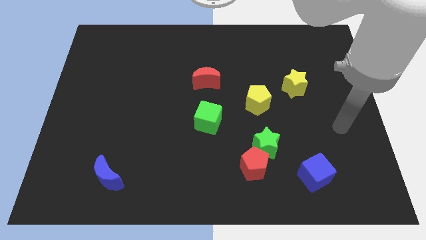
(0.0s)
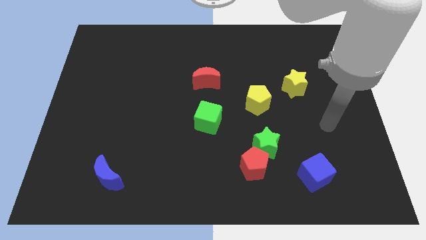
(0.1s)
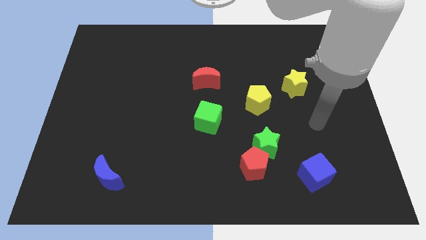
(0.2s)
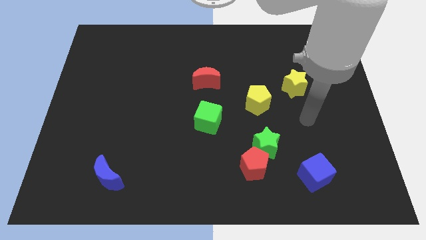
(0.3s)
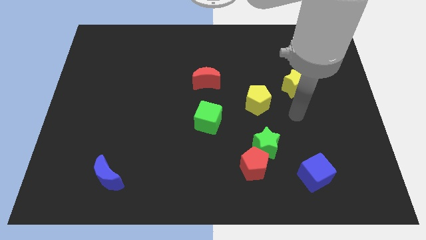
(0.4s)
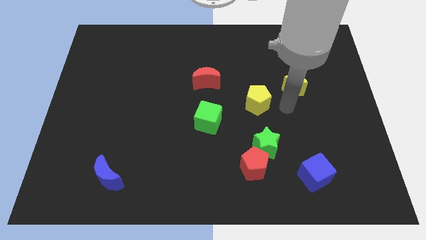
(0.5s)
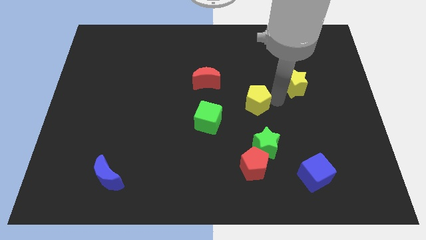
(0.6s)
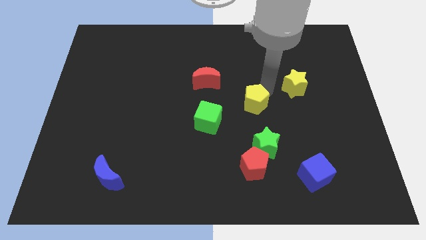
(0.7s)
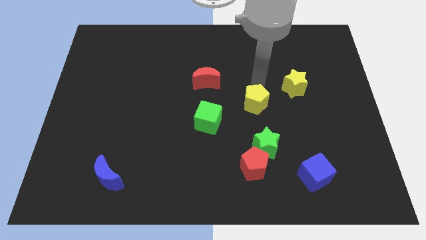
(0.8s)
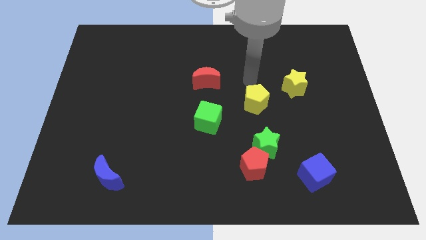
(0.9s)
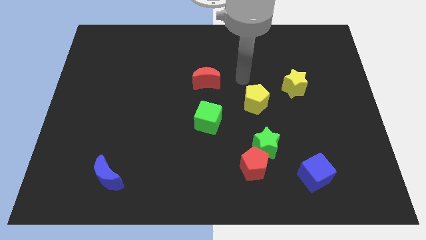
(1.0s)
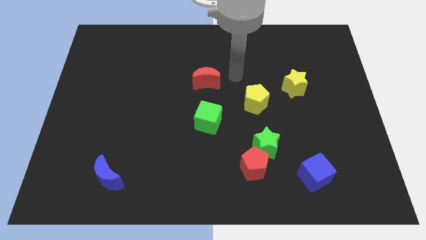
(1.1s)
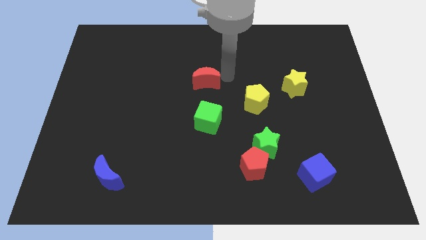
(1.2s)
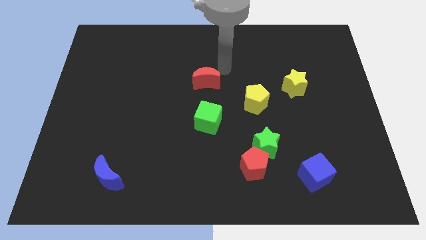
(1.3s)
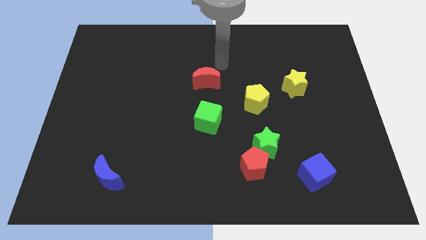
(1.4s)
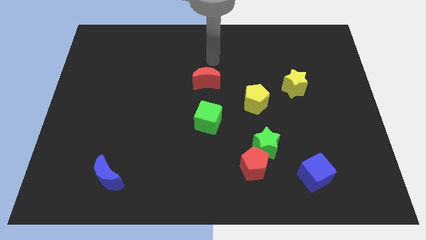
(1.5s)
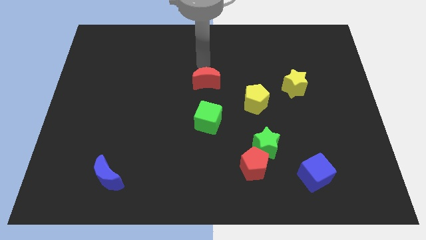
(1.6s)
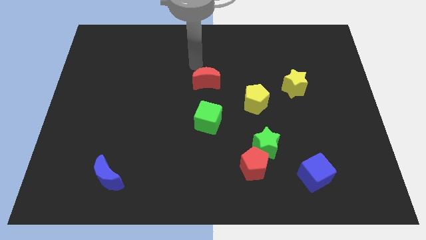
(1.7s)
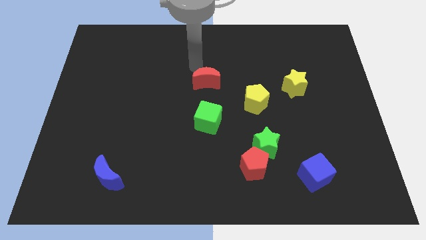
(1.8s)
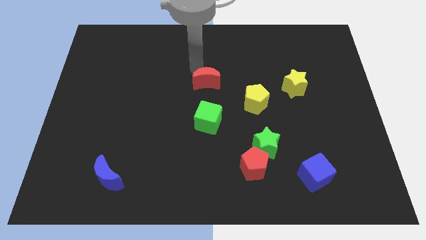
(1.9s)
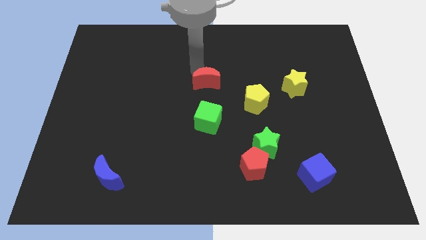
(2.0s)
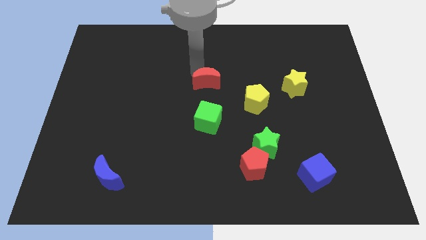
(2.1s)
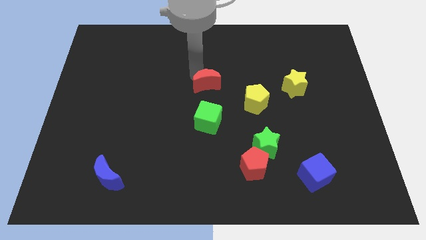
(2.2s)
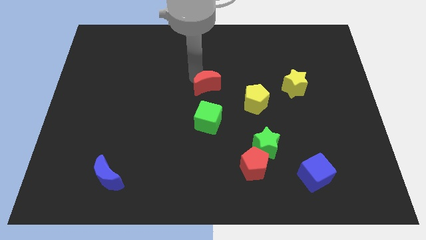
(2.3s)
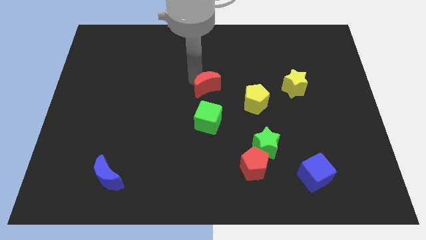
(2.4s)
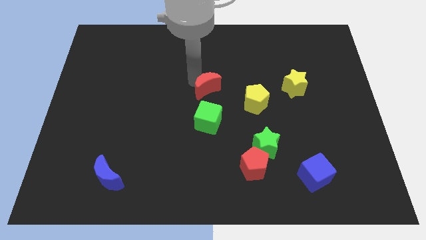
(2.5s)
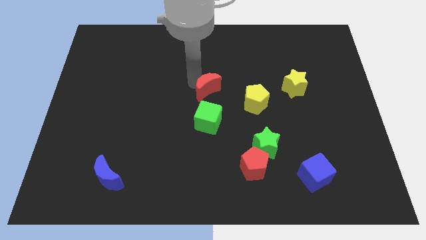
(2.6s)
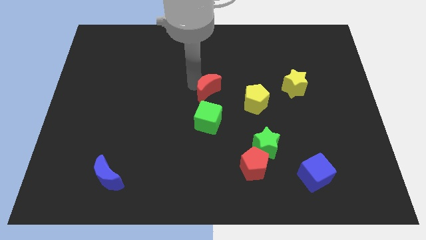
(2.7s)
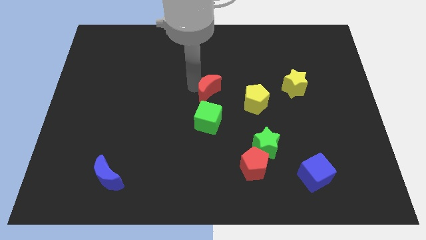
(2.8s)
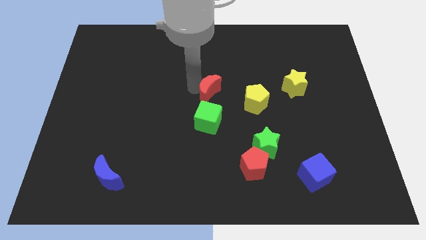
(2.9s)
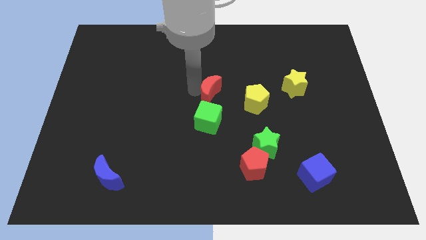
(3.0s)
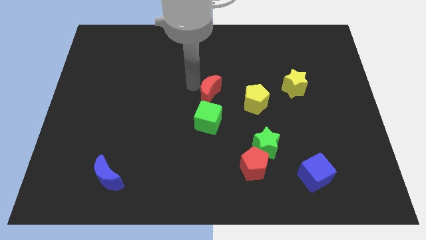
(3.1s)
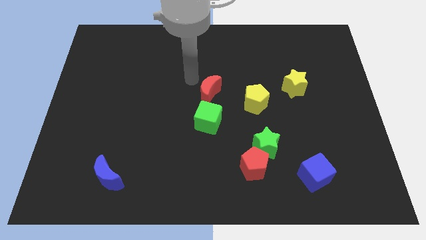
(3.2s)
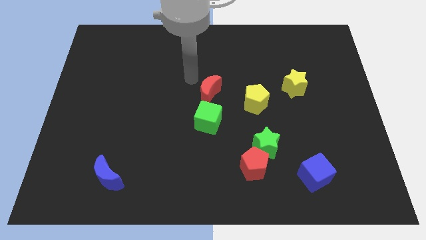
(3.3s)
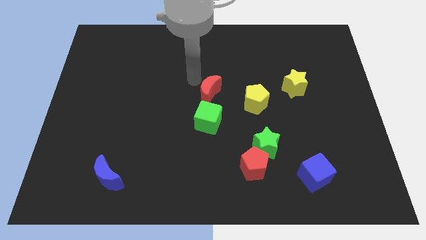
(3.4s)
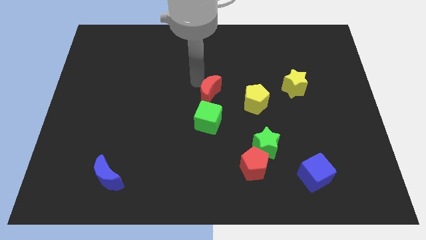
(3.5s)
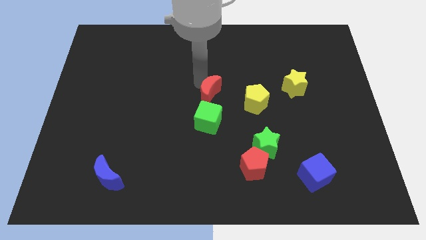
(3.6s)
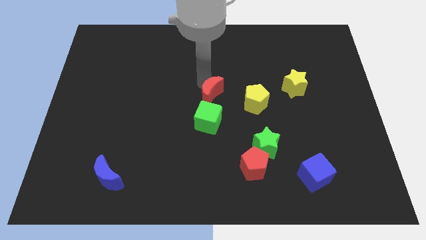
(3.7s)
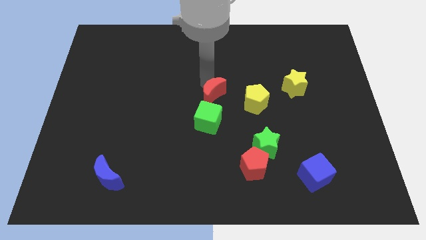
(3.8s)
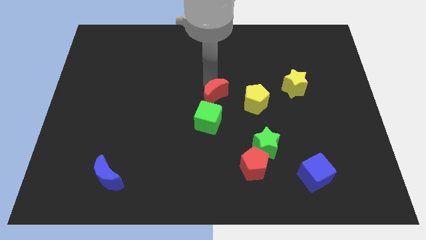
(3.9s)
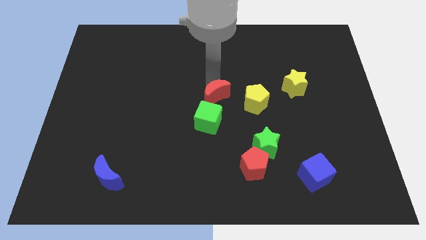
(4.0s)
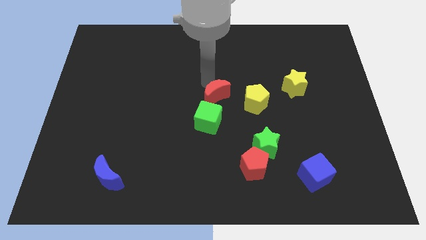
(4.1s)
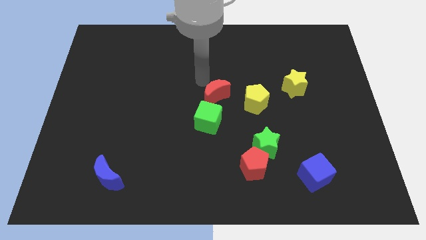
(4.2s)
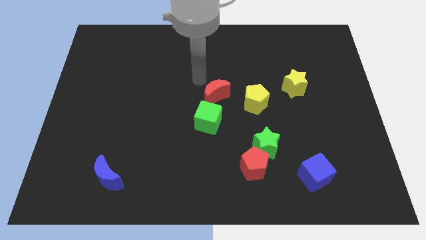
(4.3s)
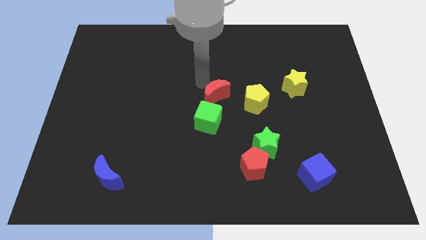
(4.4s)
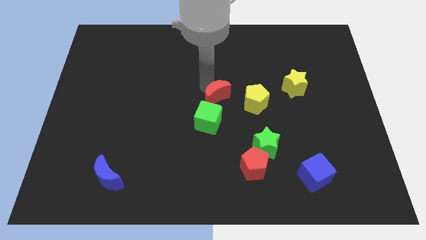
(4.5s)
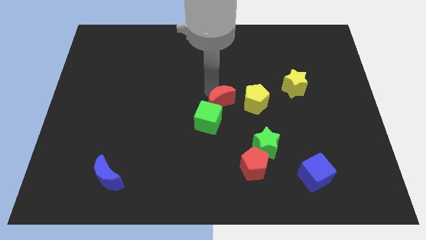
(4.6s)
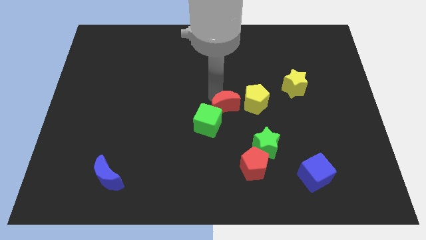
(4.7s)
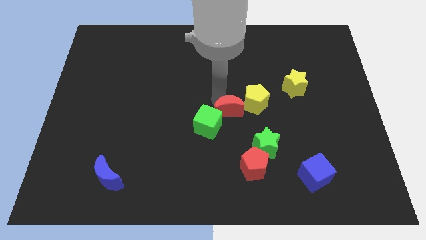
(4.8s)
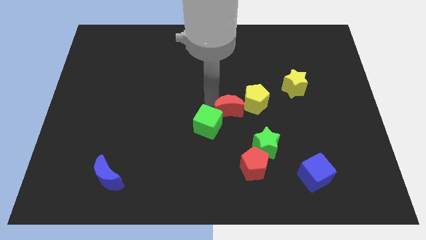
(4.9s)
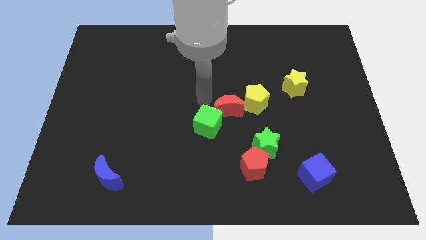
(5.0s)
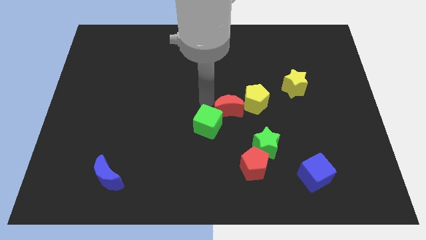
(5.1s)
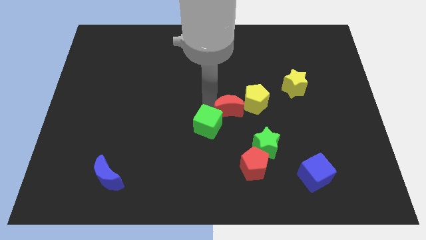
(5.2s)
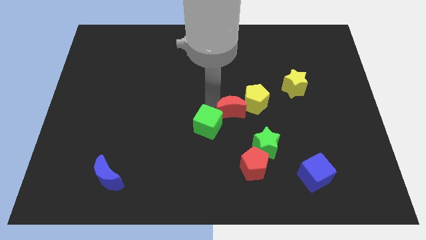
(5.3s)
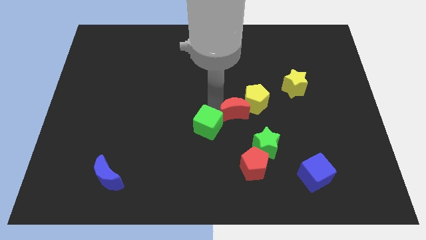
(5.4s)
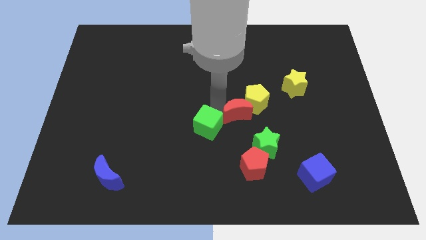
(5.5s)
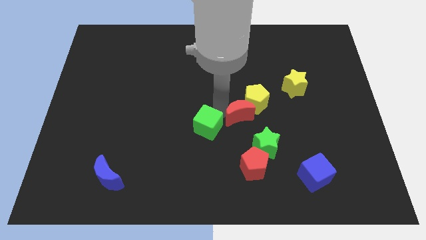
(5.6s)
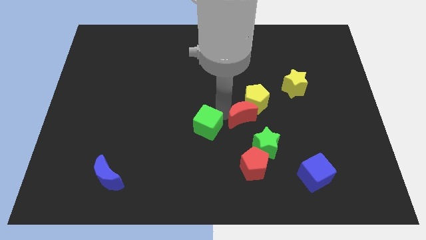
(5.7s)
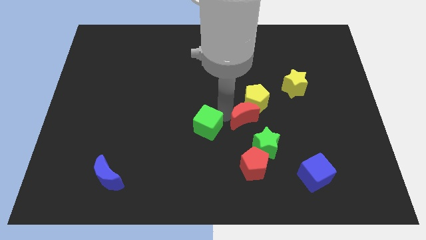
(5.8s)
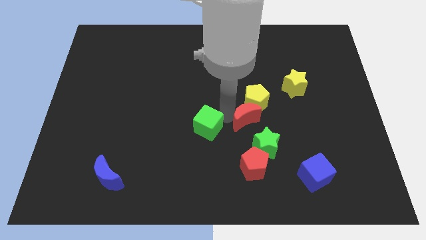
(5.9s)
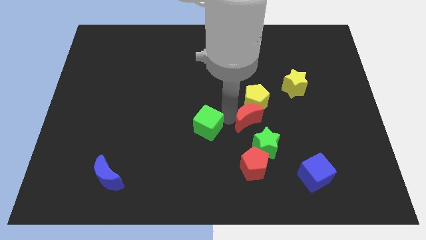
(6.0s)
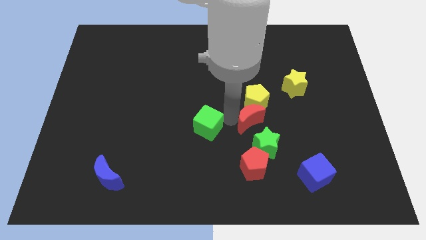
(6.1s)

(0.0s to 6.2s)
slide the red moon diagonally down and to the right of the yellow pentagon

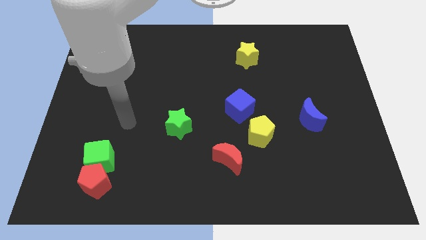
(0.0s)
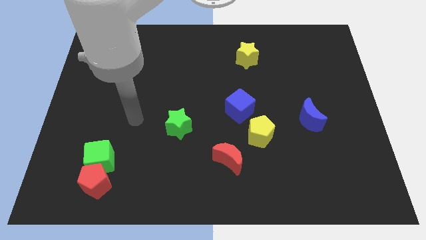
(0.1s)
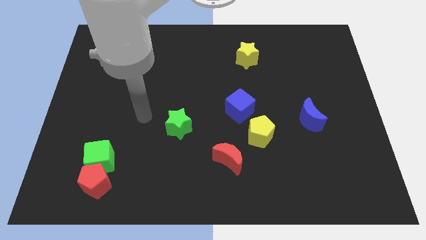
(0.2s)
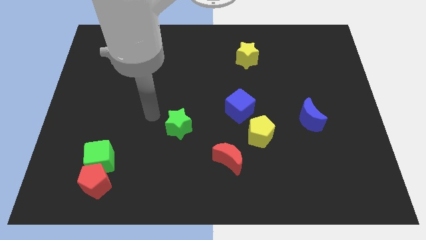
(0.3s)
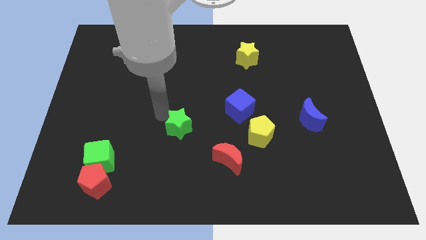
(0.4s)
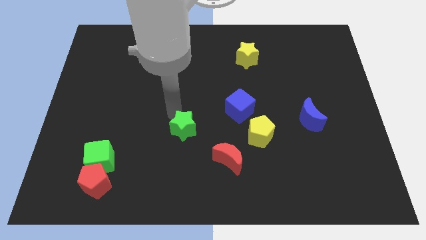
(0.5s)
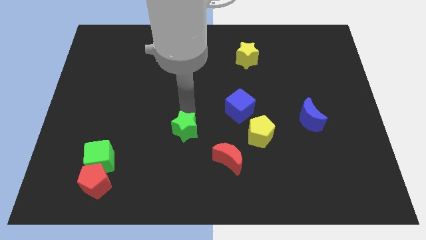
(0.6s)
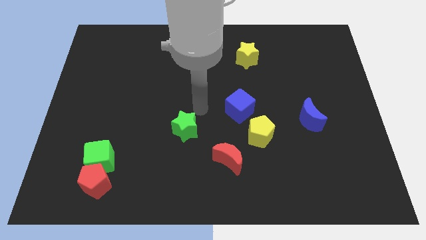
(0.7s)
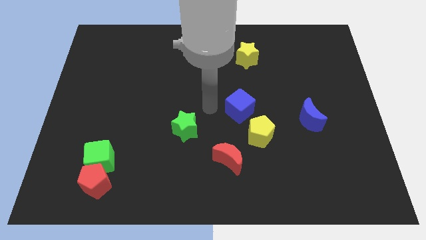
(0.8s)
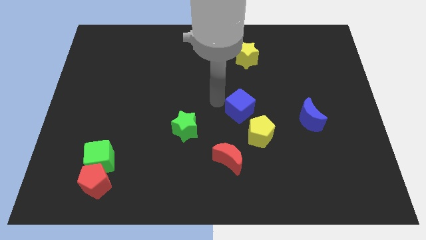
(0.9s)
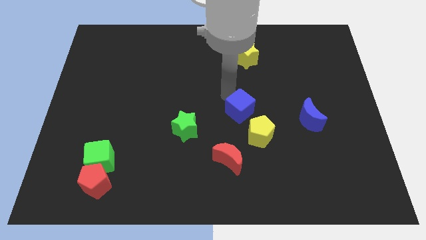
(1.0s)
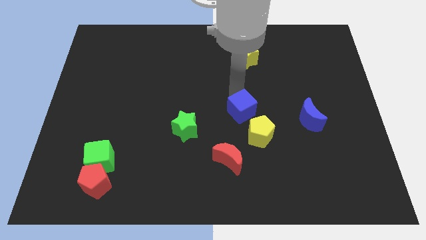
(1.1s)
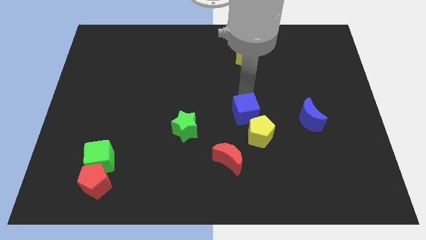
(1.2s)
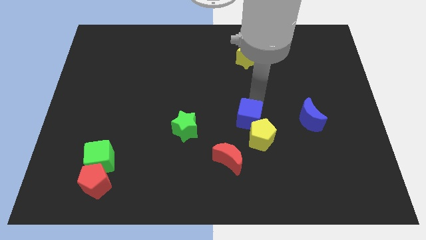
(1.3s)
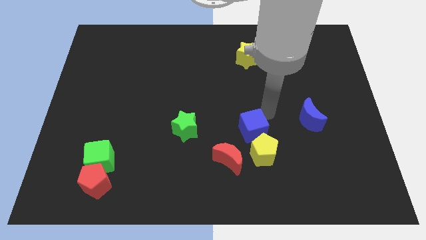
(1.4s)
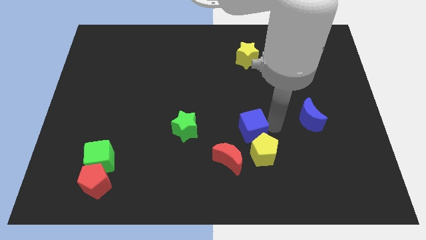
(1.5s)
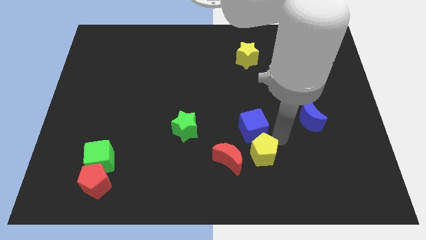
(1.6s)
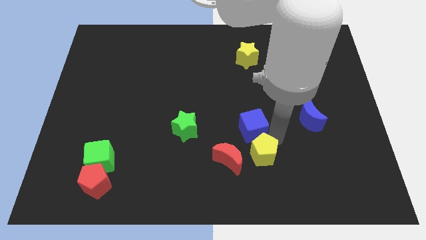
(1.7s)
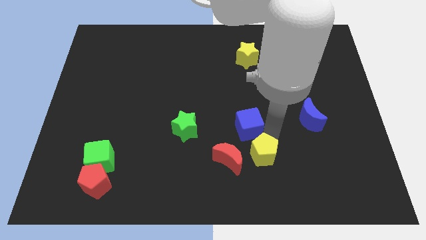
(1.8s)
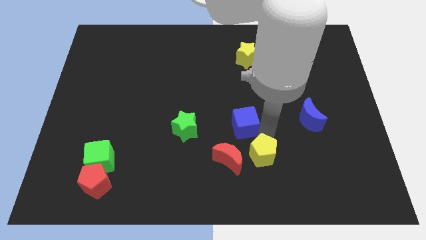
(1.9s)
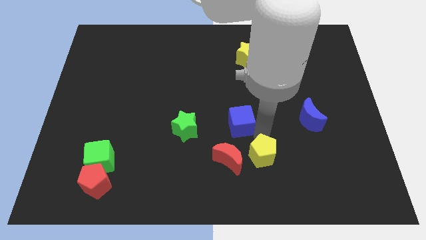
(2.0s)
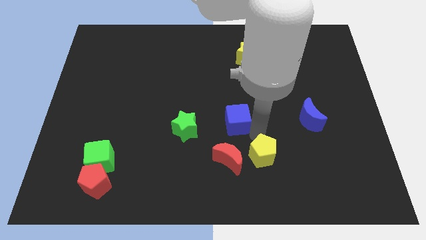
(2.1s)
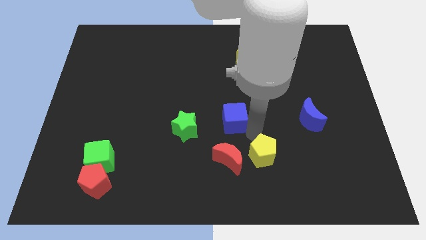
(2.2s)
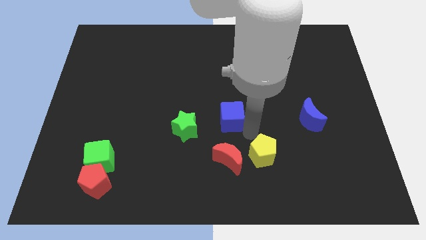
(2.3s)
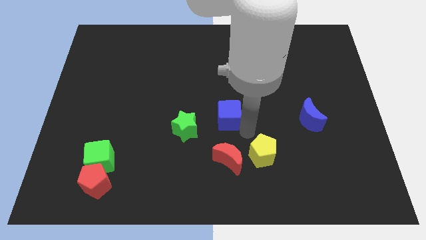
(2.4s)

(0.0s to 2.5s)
push the blue cube to the top right side of the green star
